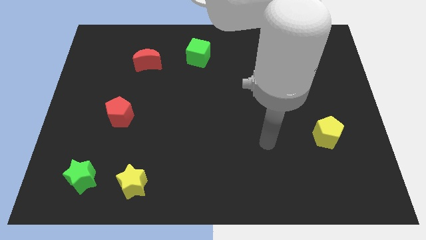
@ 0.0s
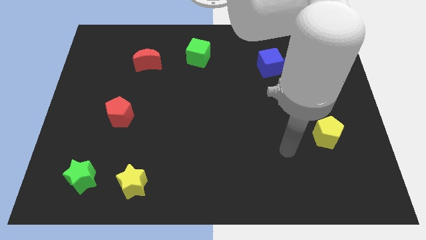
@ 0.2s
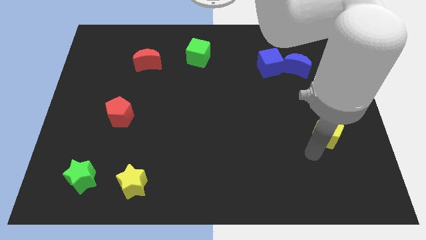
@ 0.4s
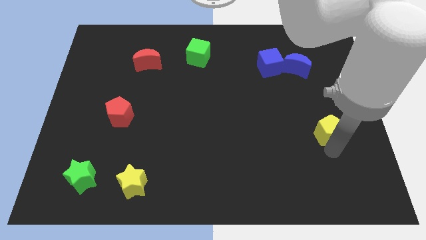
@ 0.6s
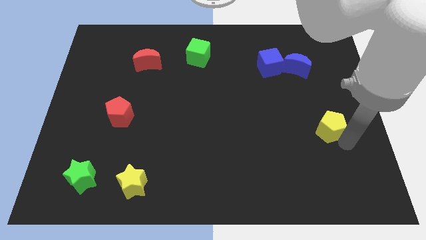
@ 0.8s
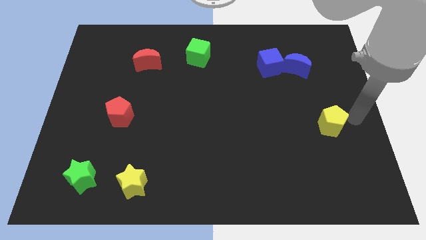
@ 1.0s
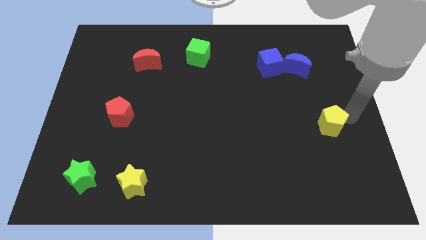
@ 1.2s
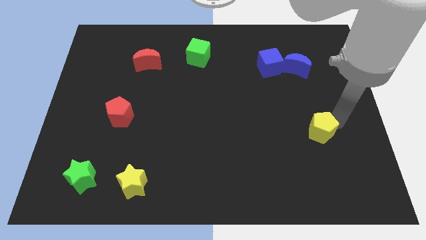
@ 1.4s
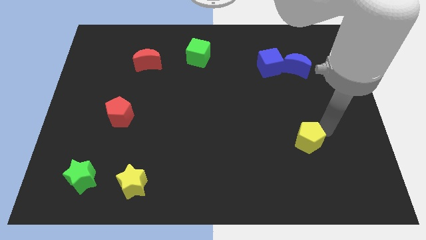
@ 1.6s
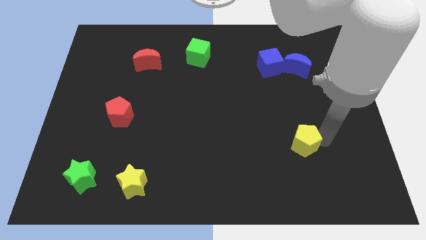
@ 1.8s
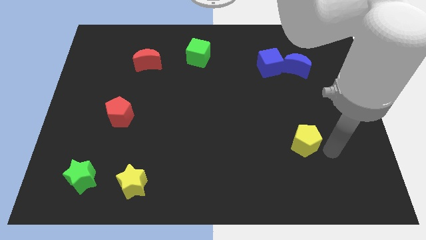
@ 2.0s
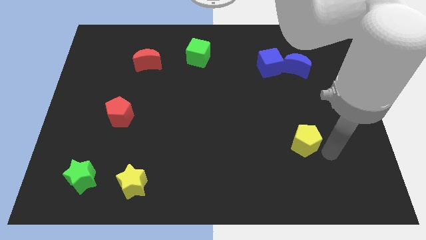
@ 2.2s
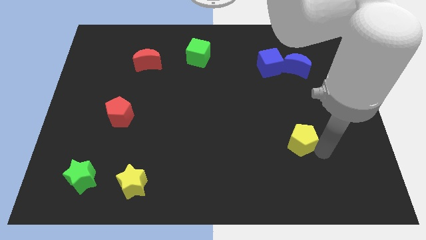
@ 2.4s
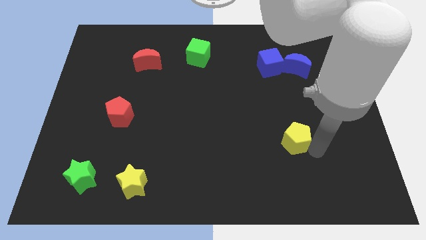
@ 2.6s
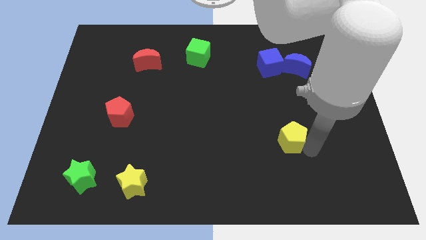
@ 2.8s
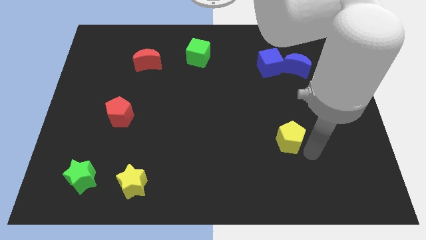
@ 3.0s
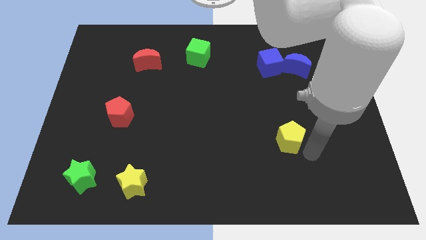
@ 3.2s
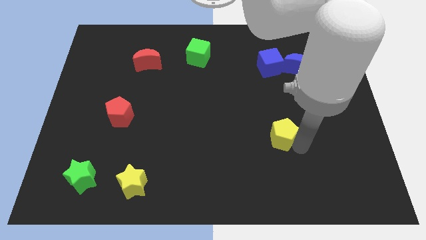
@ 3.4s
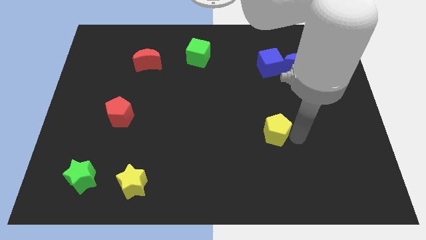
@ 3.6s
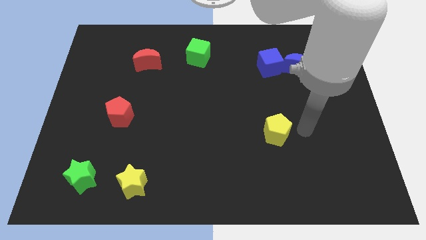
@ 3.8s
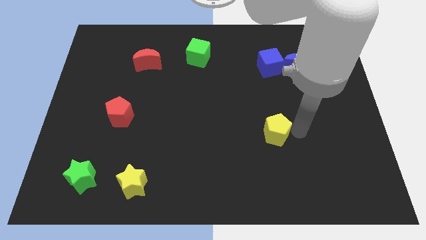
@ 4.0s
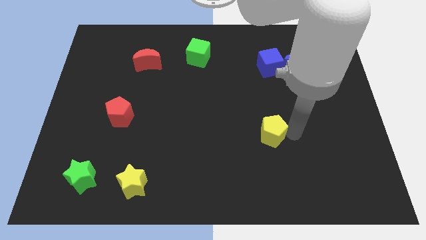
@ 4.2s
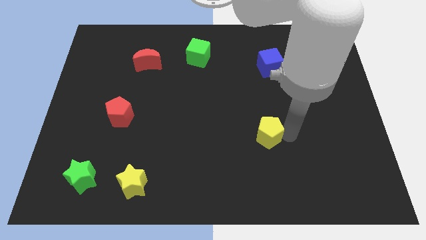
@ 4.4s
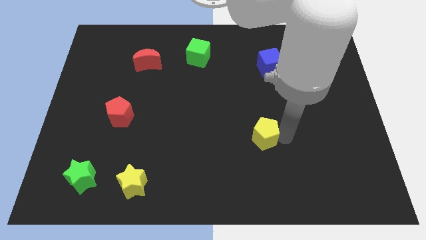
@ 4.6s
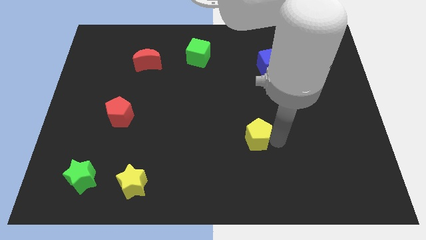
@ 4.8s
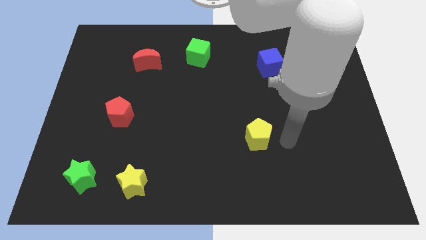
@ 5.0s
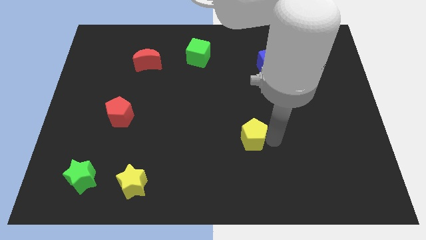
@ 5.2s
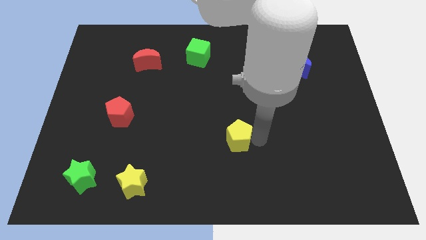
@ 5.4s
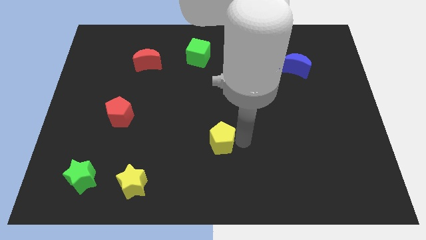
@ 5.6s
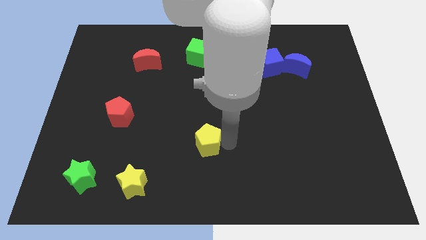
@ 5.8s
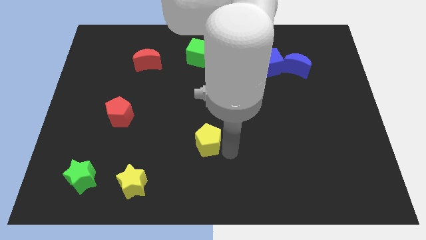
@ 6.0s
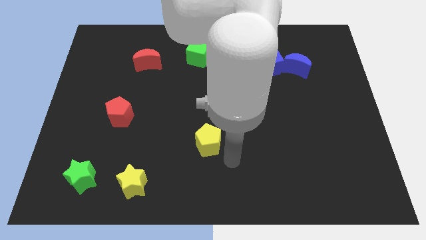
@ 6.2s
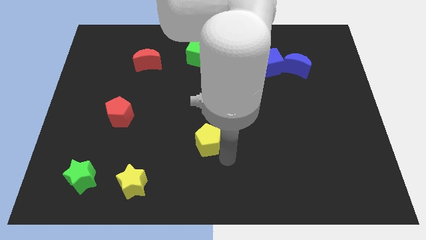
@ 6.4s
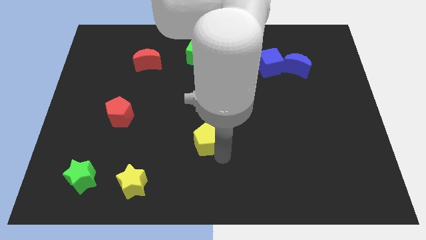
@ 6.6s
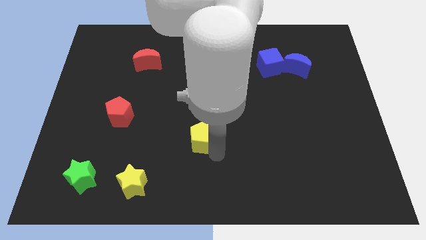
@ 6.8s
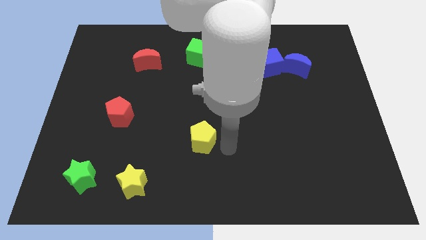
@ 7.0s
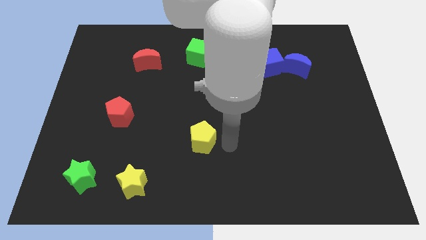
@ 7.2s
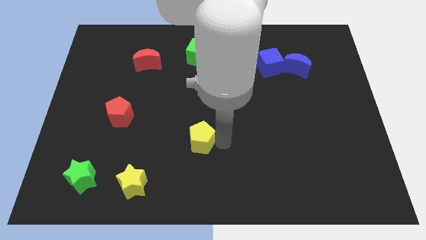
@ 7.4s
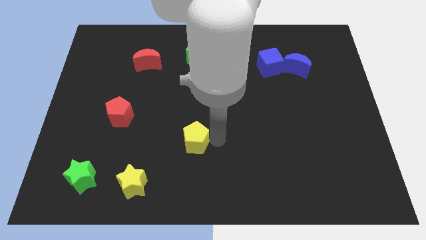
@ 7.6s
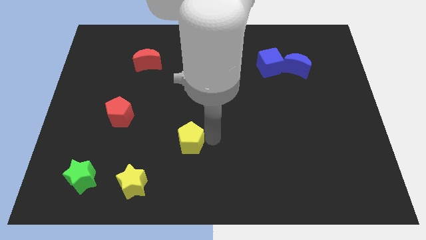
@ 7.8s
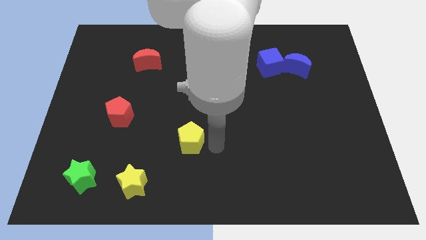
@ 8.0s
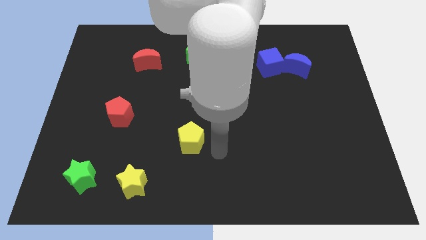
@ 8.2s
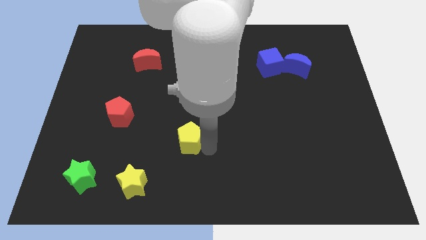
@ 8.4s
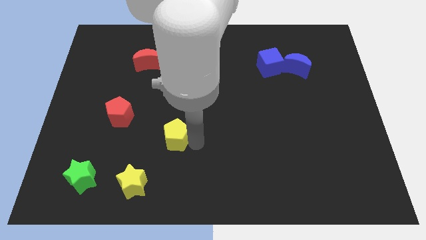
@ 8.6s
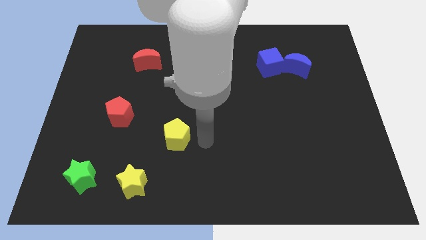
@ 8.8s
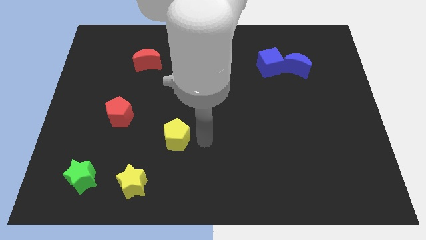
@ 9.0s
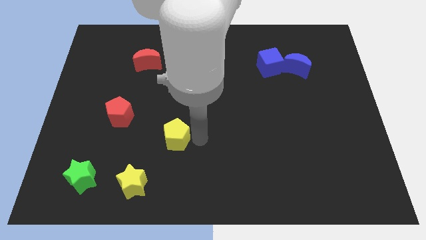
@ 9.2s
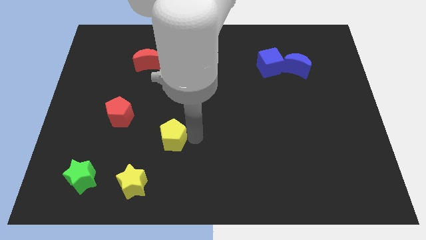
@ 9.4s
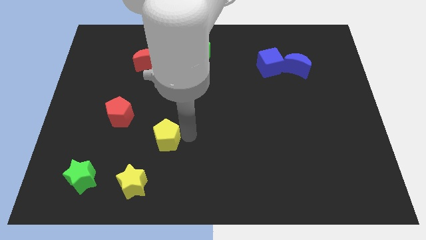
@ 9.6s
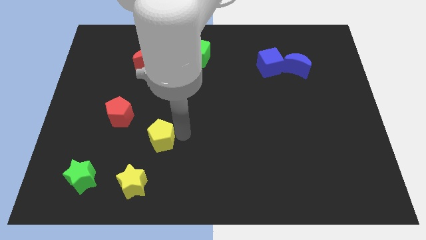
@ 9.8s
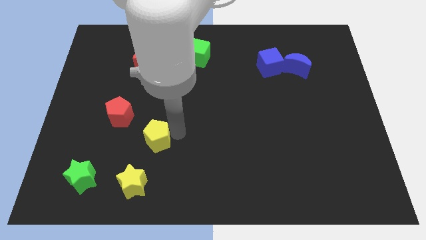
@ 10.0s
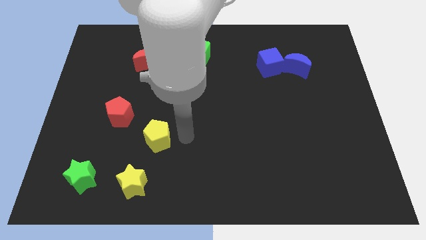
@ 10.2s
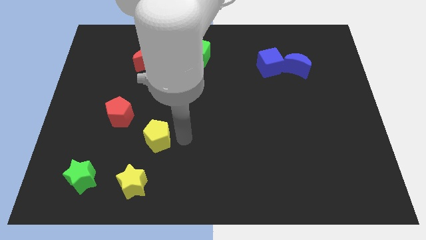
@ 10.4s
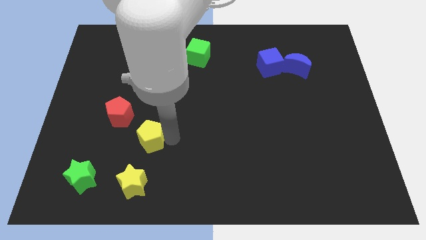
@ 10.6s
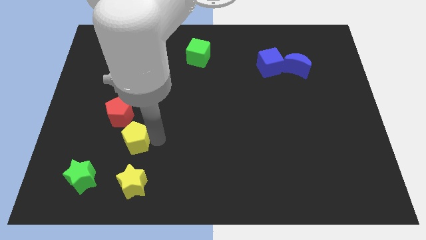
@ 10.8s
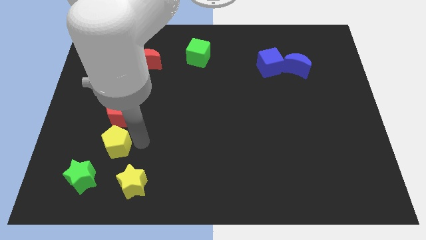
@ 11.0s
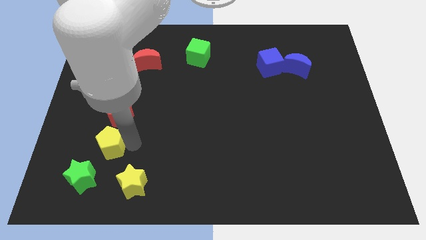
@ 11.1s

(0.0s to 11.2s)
move the yellow pentagon to the top of the green star

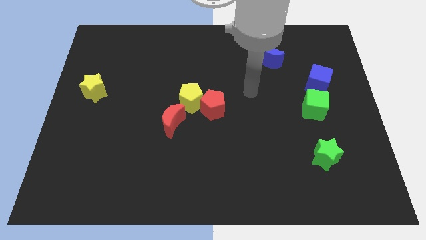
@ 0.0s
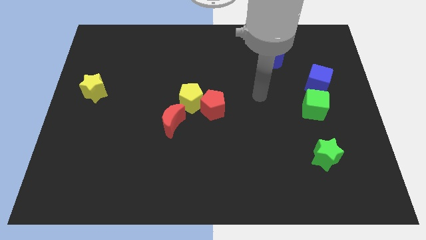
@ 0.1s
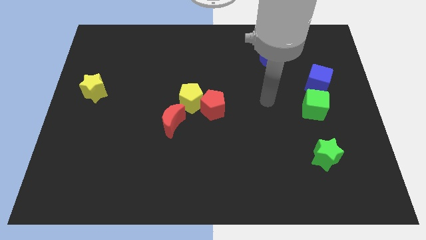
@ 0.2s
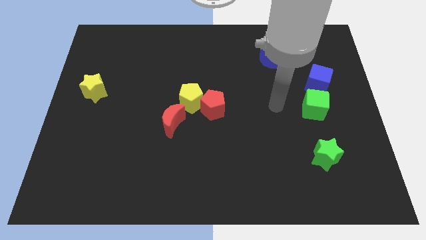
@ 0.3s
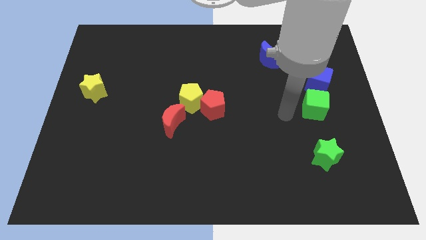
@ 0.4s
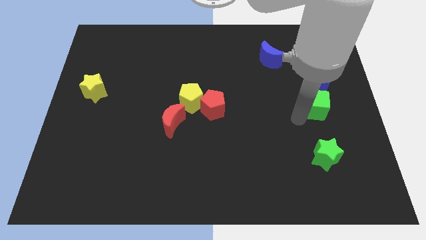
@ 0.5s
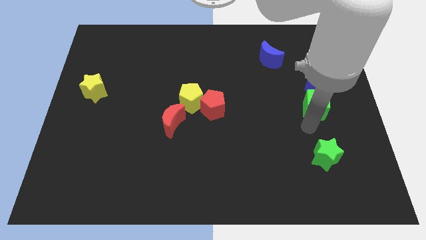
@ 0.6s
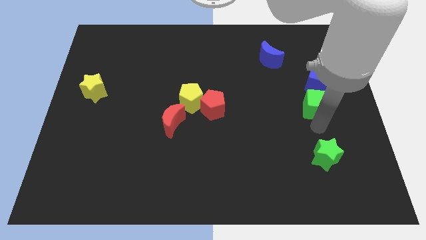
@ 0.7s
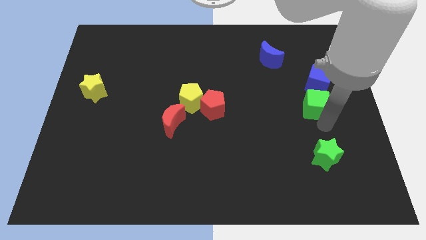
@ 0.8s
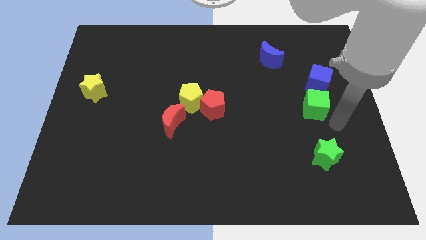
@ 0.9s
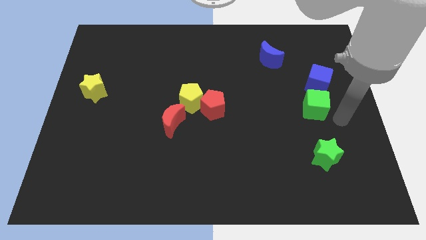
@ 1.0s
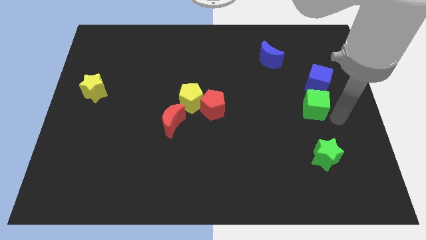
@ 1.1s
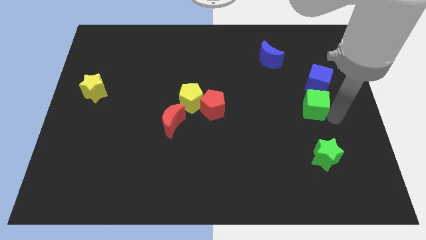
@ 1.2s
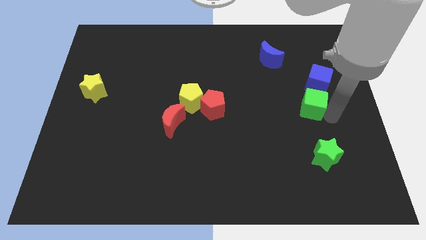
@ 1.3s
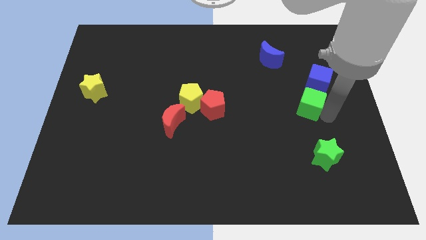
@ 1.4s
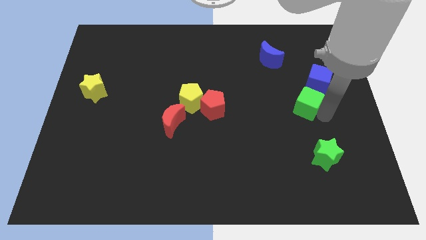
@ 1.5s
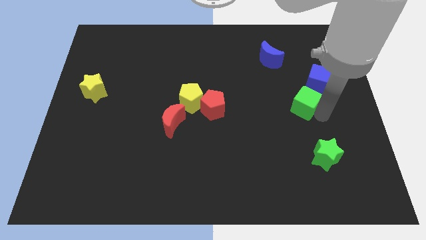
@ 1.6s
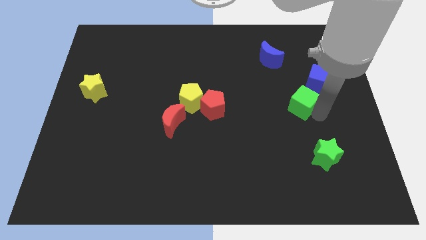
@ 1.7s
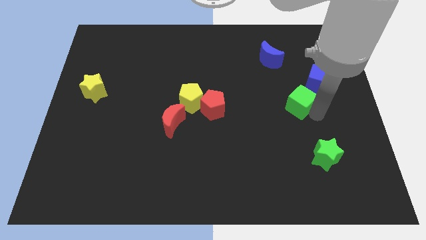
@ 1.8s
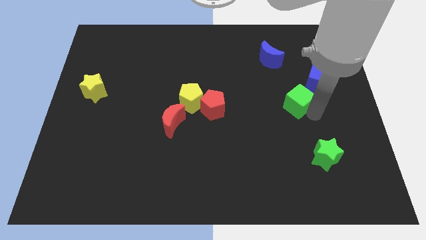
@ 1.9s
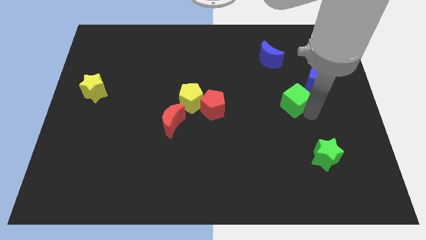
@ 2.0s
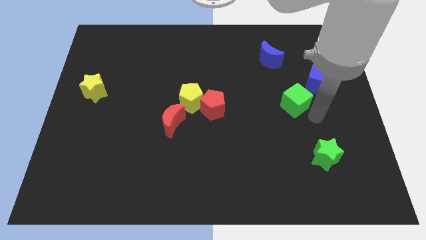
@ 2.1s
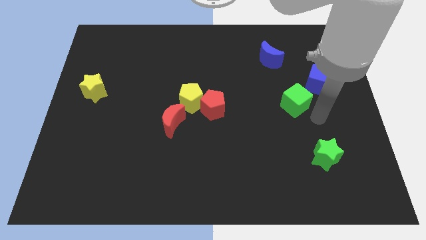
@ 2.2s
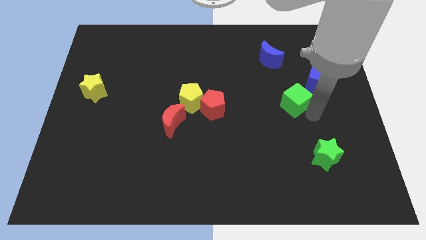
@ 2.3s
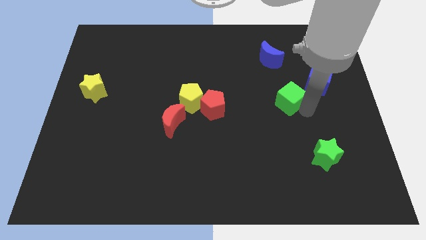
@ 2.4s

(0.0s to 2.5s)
move the green cube below the blue moon
